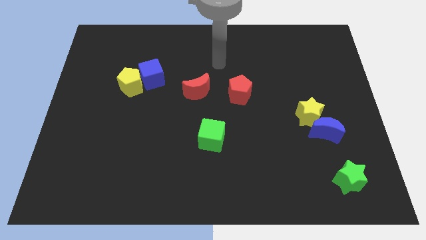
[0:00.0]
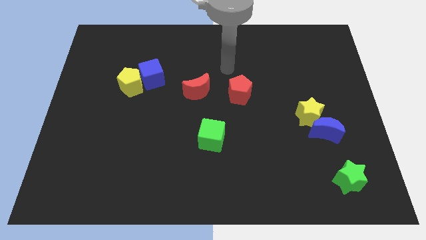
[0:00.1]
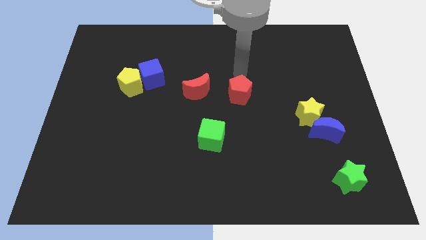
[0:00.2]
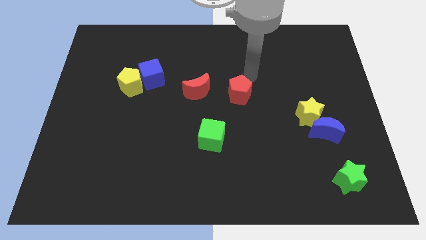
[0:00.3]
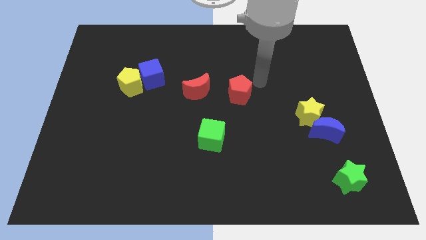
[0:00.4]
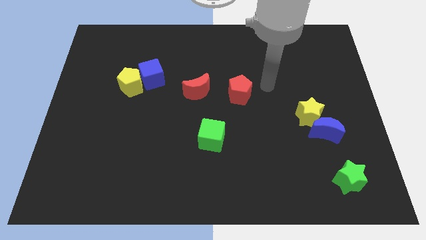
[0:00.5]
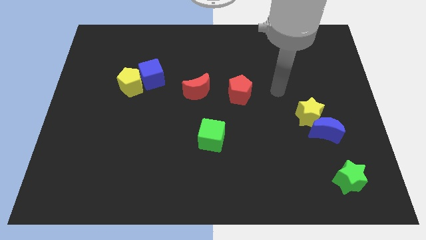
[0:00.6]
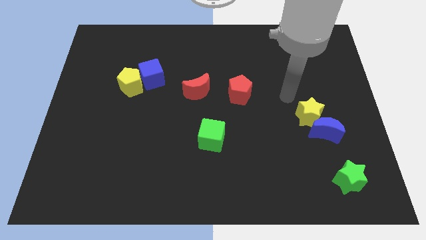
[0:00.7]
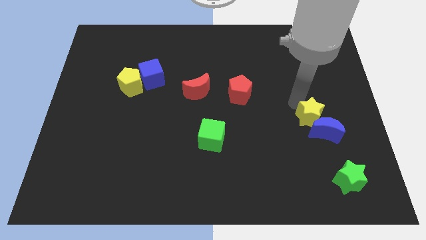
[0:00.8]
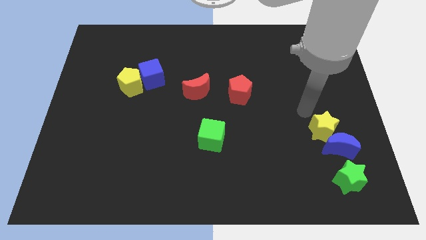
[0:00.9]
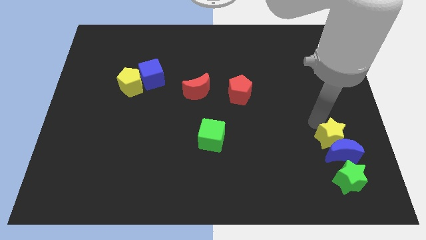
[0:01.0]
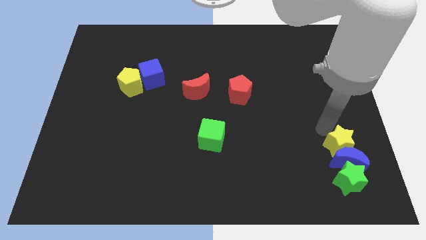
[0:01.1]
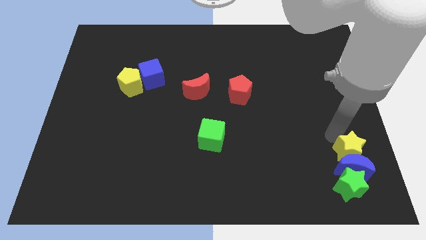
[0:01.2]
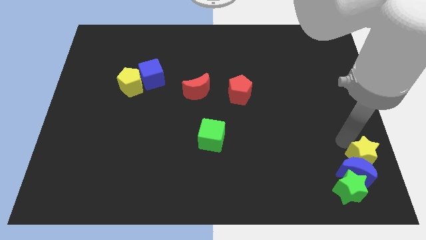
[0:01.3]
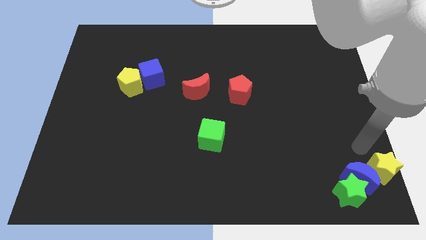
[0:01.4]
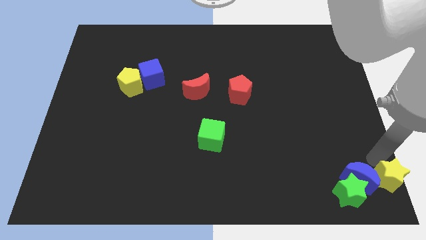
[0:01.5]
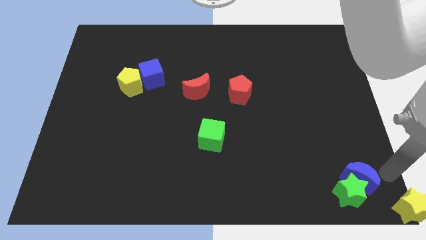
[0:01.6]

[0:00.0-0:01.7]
separate the blue moon from the yellow star

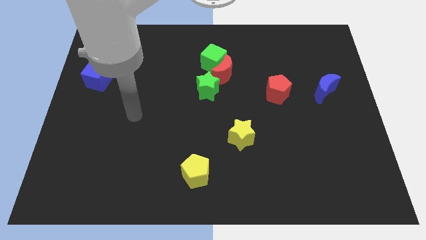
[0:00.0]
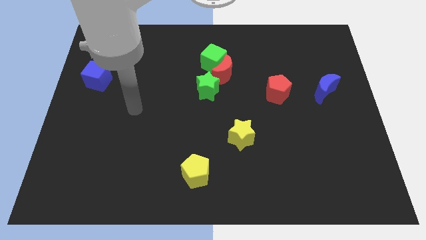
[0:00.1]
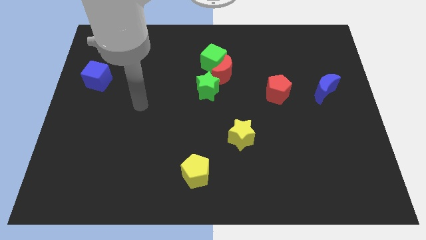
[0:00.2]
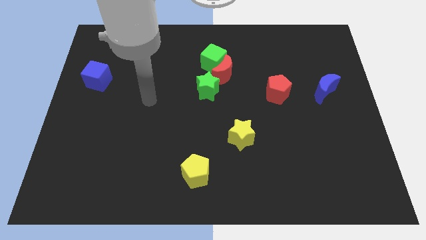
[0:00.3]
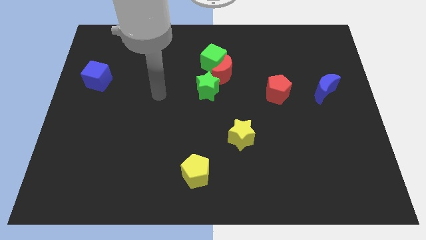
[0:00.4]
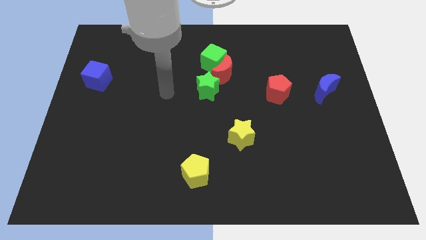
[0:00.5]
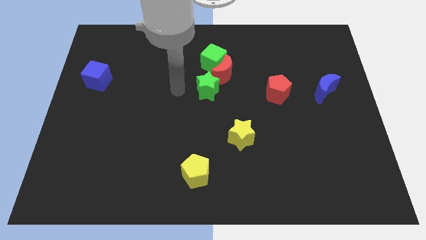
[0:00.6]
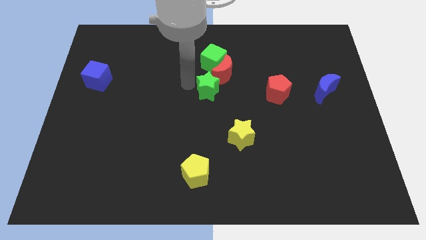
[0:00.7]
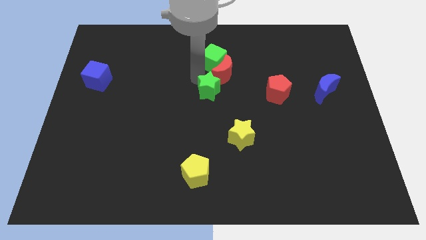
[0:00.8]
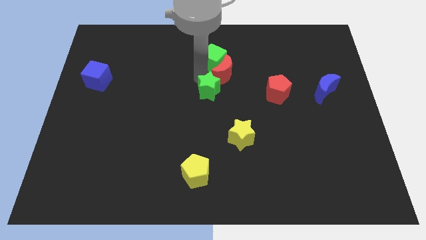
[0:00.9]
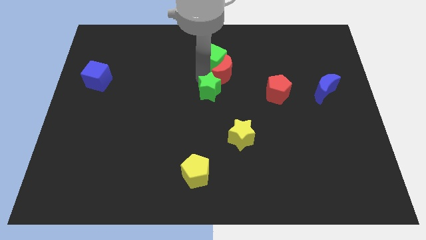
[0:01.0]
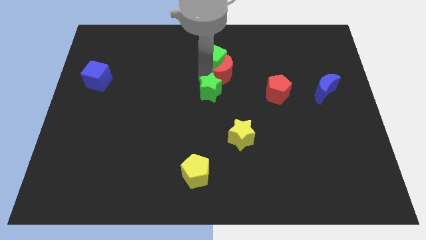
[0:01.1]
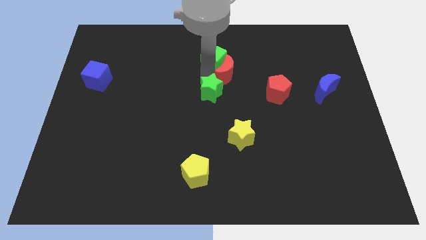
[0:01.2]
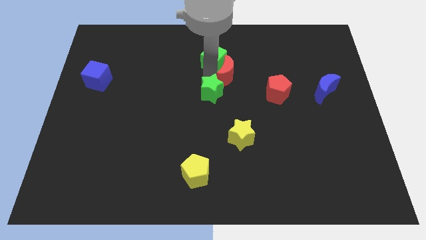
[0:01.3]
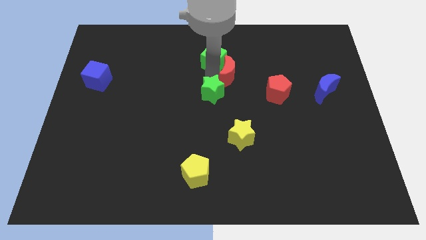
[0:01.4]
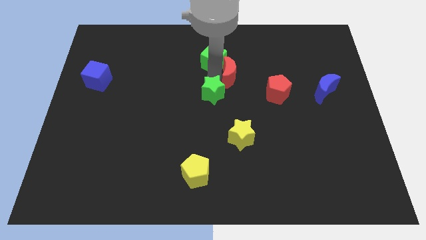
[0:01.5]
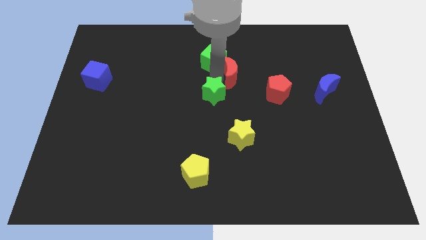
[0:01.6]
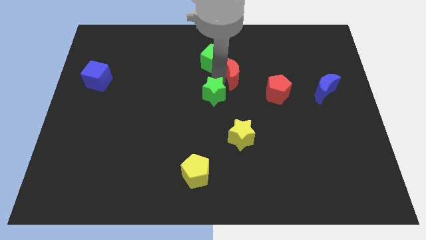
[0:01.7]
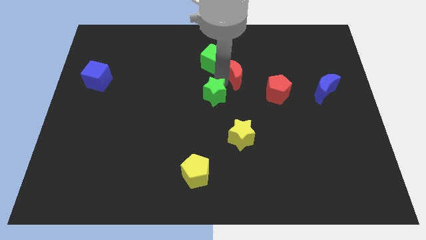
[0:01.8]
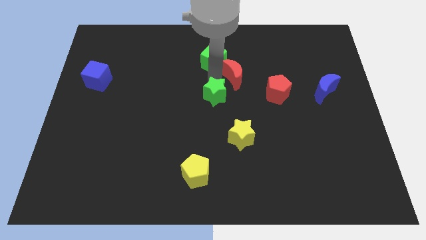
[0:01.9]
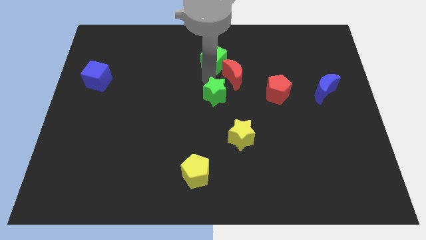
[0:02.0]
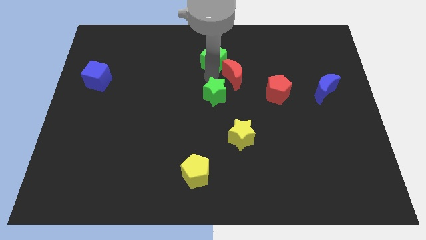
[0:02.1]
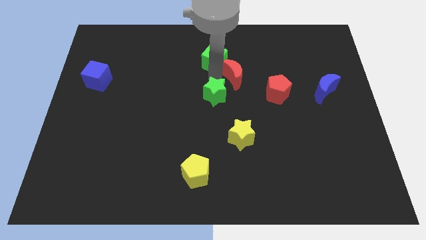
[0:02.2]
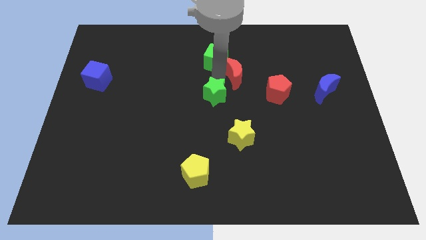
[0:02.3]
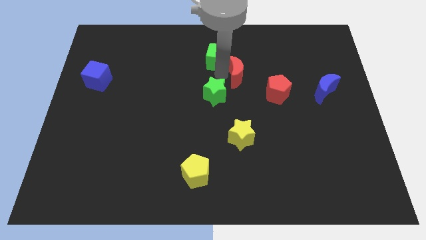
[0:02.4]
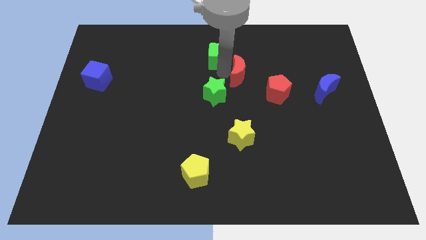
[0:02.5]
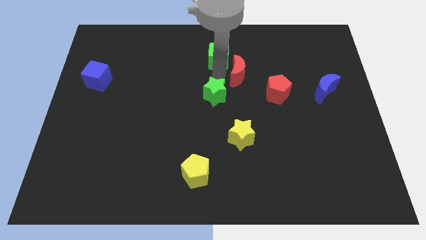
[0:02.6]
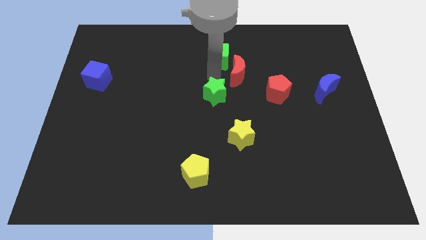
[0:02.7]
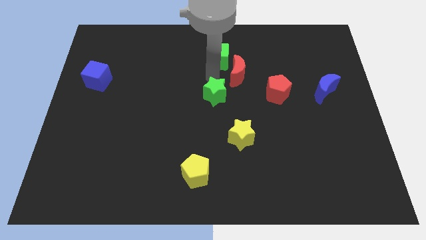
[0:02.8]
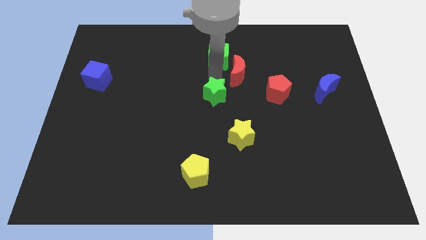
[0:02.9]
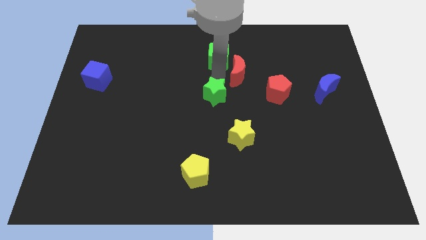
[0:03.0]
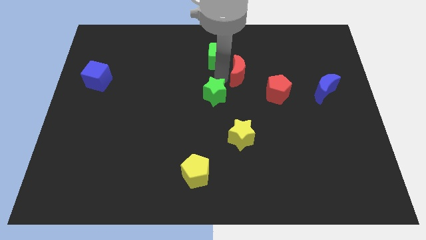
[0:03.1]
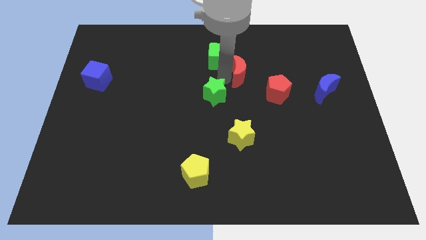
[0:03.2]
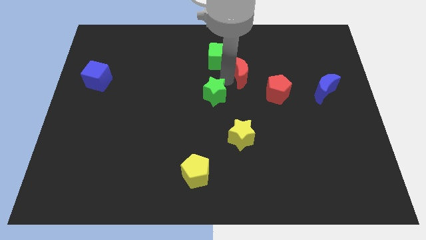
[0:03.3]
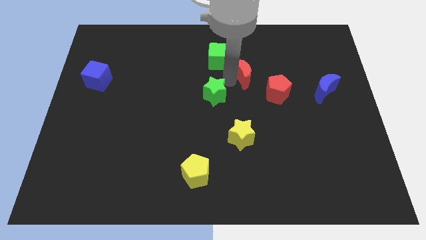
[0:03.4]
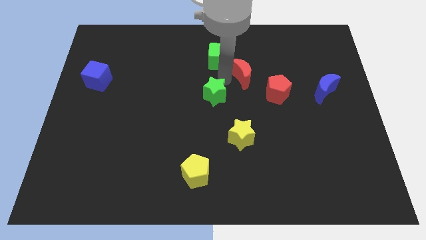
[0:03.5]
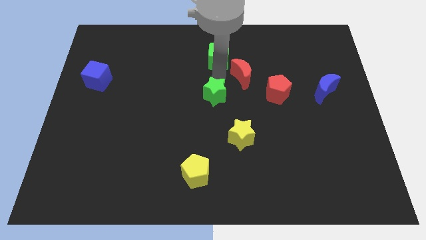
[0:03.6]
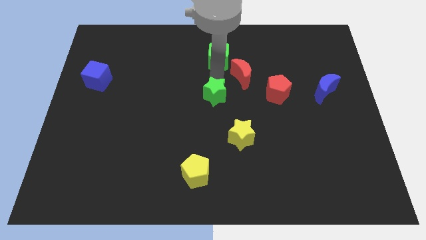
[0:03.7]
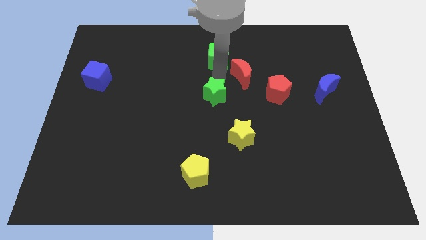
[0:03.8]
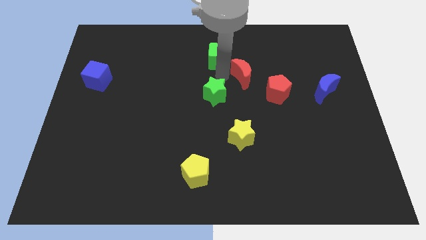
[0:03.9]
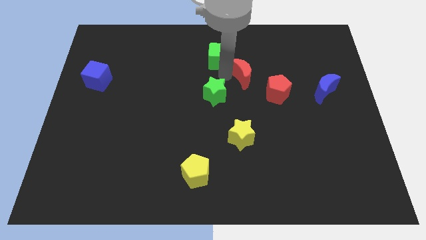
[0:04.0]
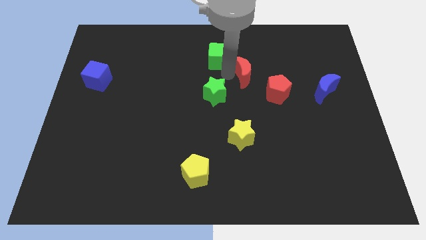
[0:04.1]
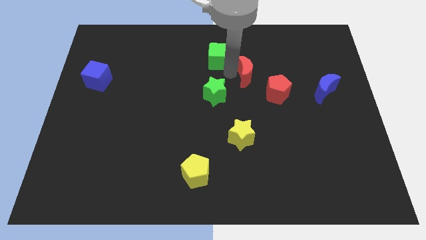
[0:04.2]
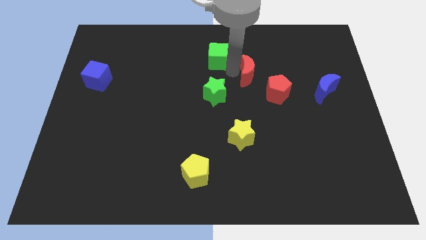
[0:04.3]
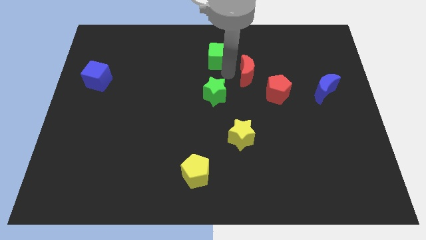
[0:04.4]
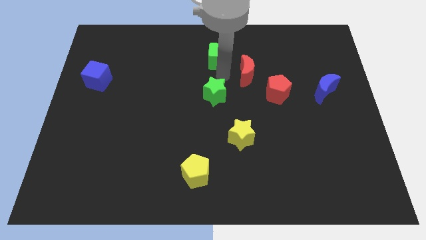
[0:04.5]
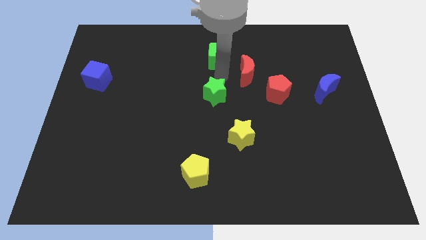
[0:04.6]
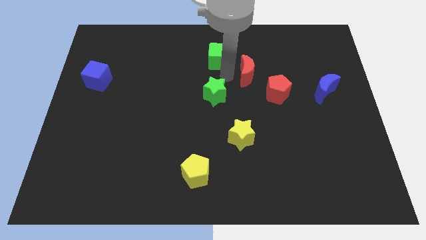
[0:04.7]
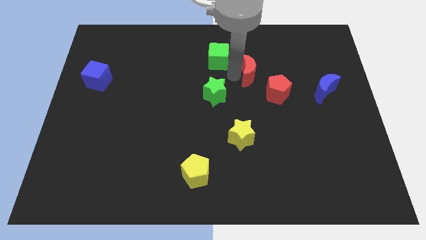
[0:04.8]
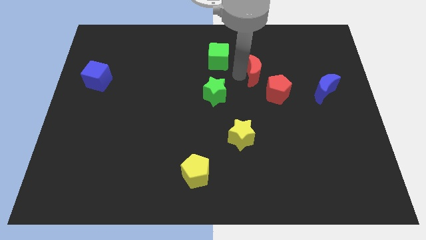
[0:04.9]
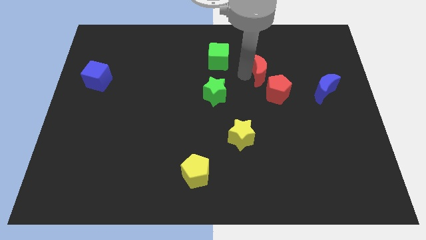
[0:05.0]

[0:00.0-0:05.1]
pull the red moon apart from the green cube and green star

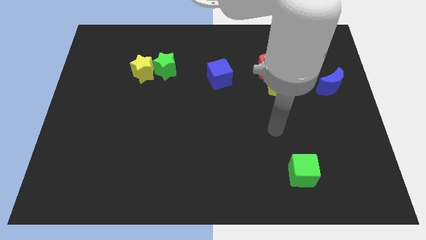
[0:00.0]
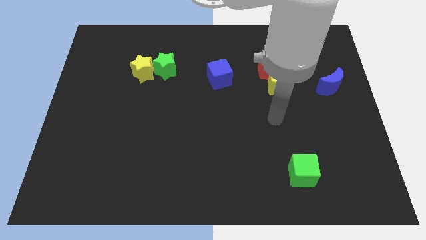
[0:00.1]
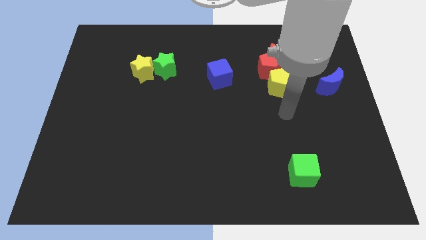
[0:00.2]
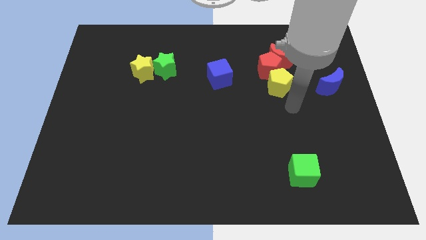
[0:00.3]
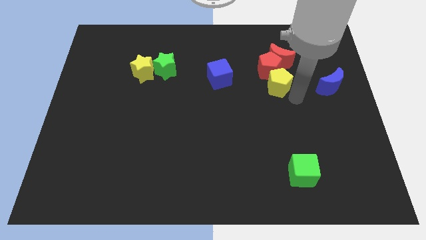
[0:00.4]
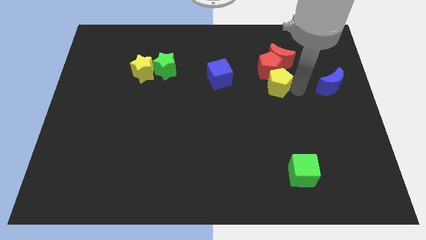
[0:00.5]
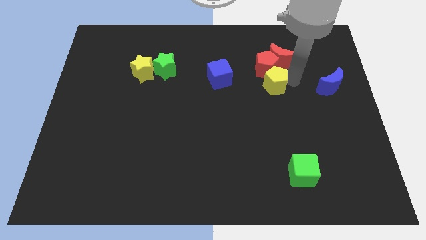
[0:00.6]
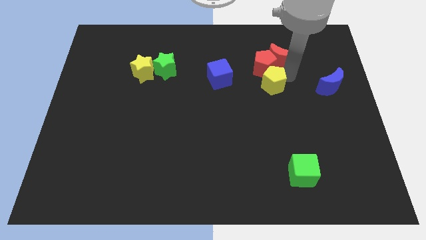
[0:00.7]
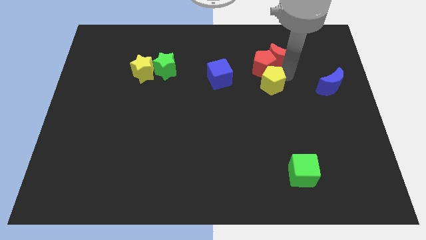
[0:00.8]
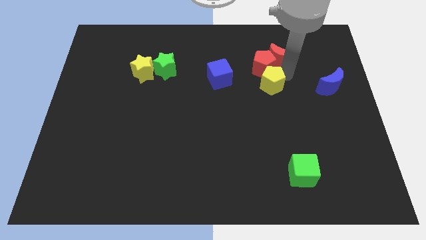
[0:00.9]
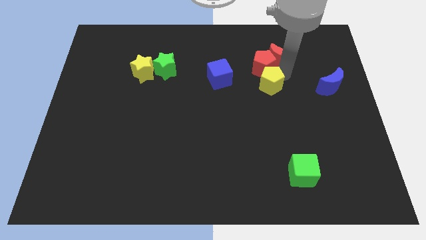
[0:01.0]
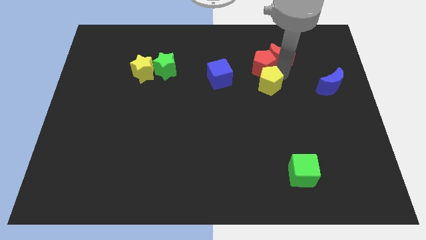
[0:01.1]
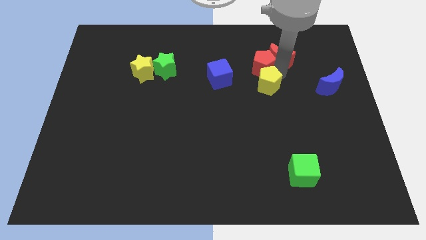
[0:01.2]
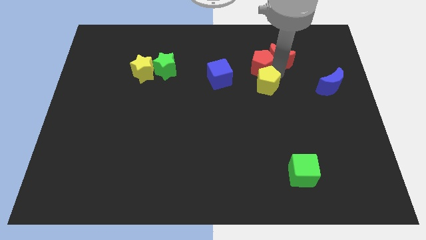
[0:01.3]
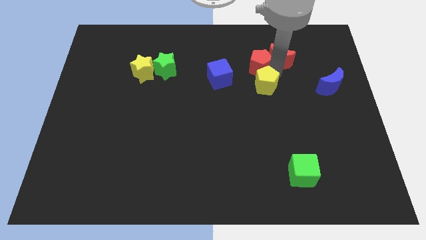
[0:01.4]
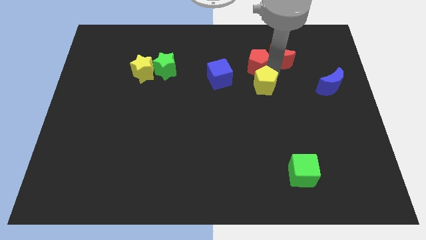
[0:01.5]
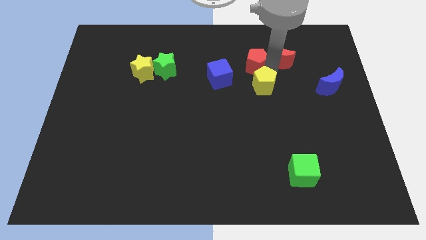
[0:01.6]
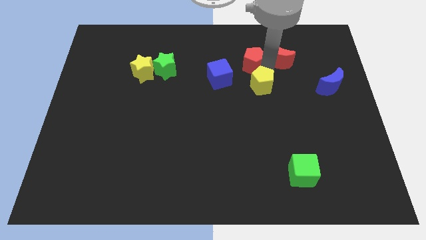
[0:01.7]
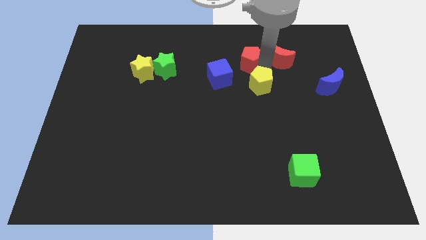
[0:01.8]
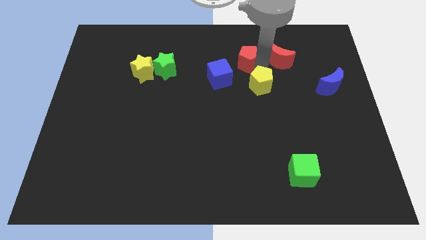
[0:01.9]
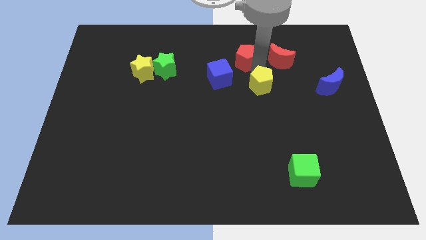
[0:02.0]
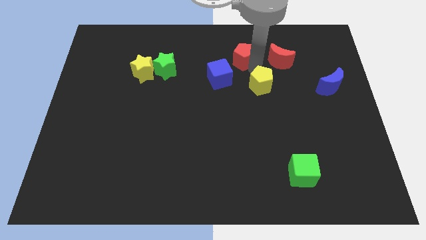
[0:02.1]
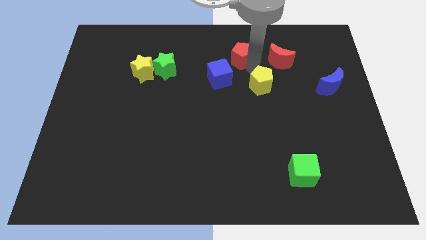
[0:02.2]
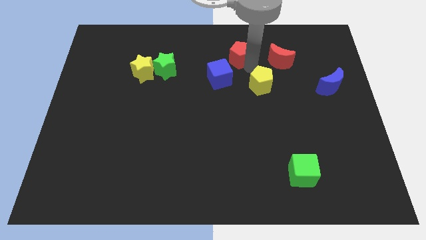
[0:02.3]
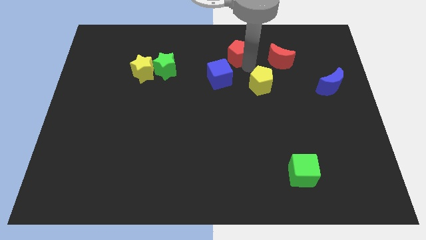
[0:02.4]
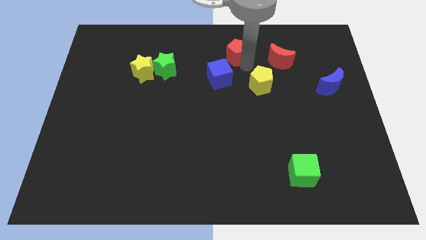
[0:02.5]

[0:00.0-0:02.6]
separate the red pentagon from the red moon and yellow pentagon
